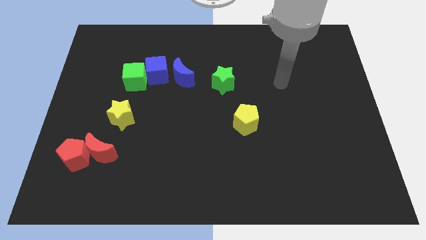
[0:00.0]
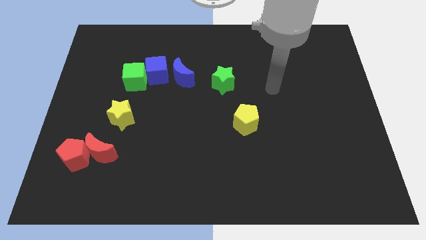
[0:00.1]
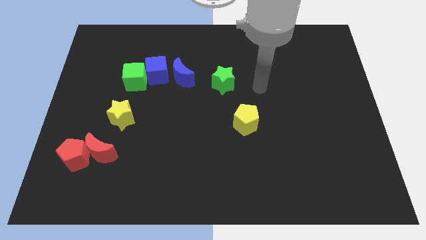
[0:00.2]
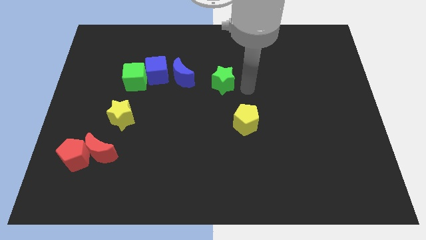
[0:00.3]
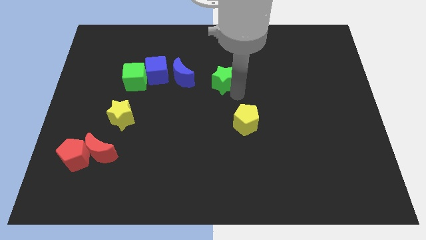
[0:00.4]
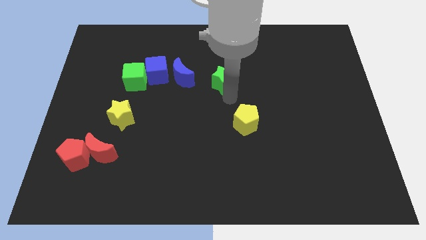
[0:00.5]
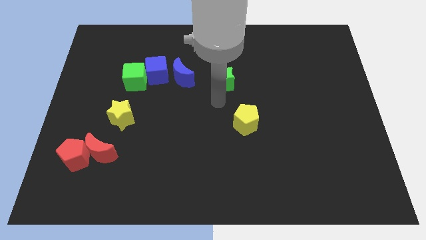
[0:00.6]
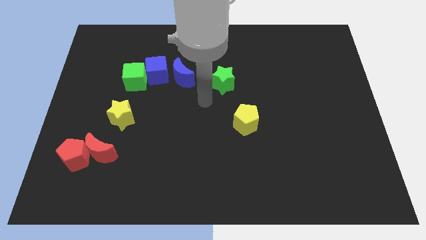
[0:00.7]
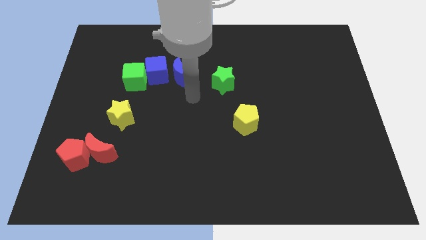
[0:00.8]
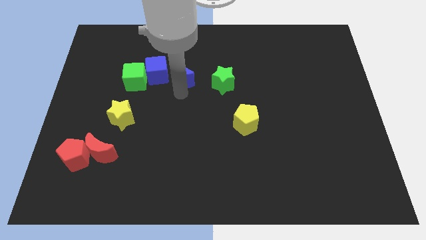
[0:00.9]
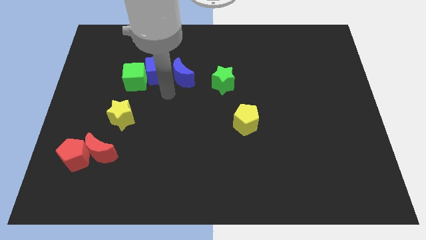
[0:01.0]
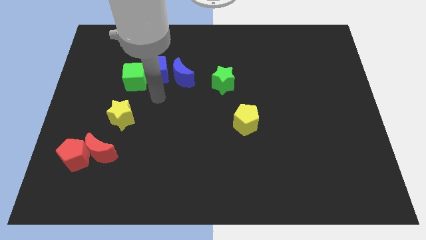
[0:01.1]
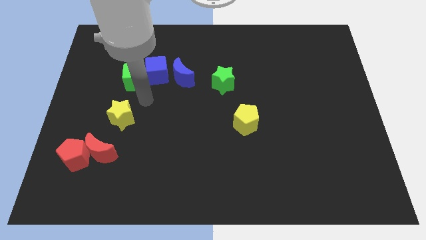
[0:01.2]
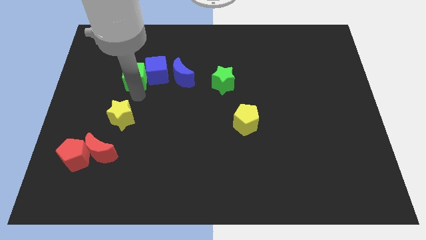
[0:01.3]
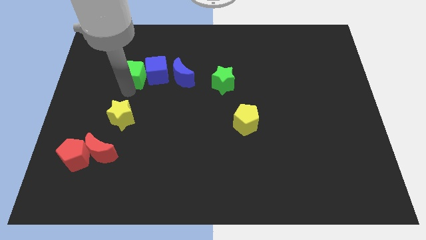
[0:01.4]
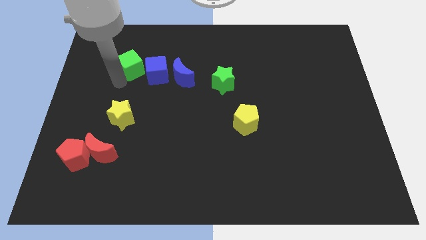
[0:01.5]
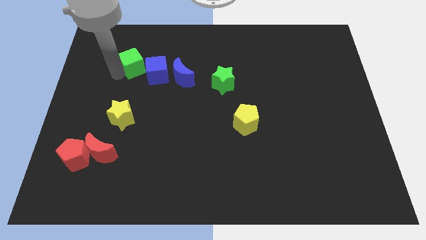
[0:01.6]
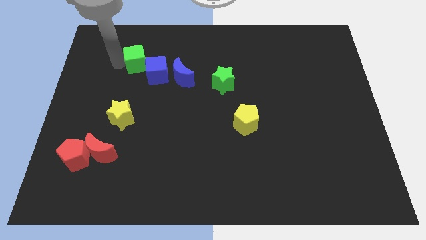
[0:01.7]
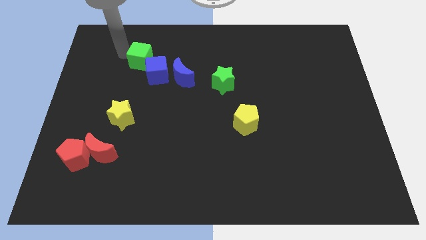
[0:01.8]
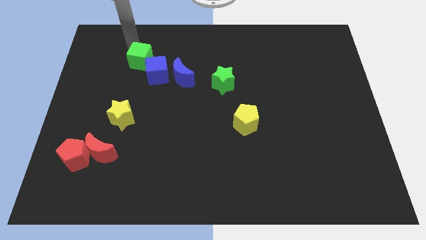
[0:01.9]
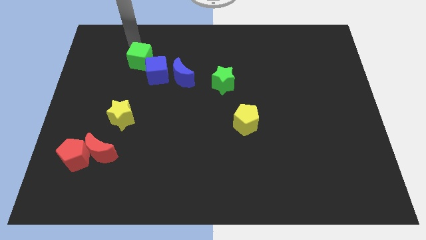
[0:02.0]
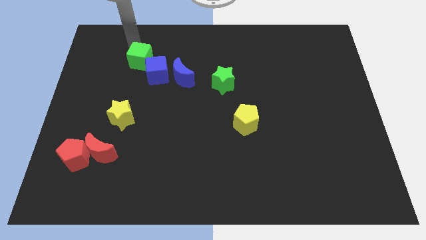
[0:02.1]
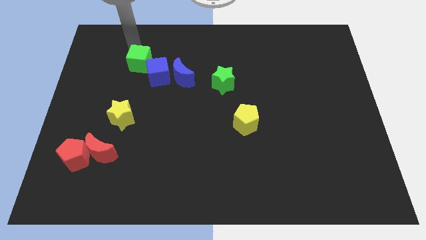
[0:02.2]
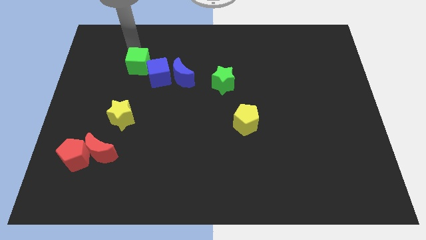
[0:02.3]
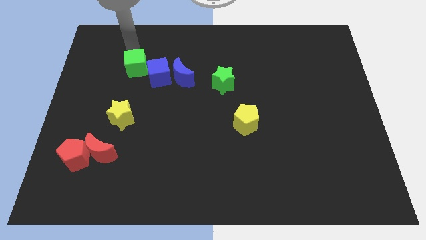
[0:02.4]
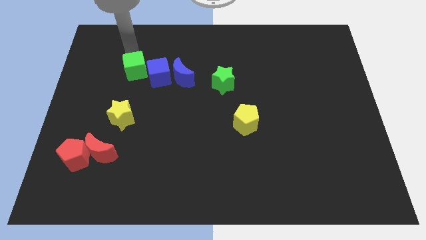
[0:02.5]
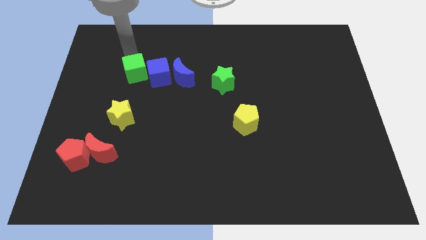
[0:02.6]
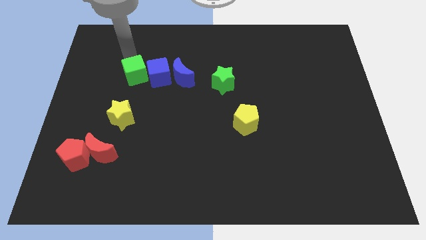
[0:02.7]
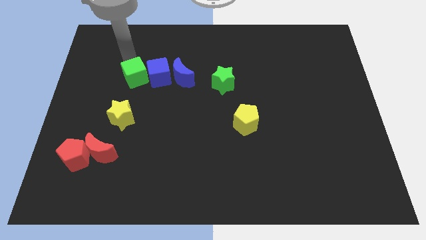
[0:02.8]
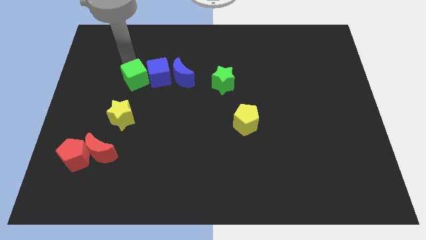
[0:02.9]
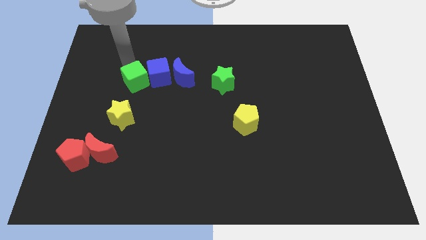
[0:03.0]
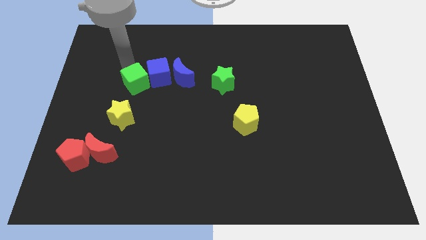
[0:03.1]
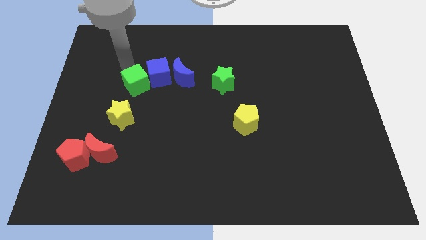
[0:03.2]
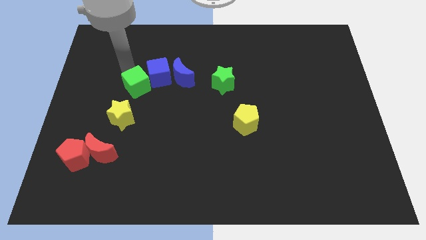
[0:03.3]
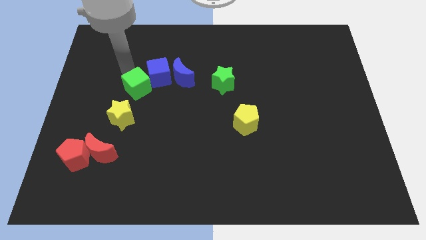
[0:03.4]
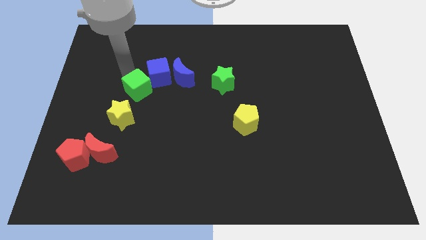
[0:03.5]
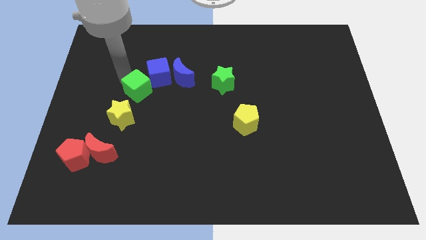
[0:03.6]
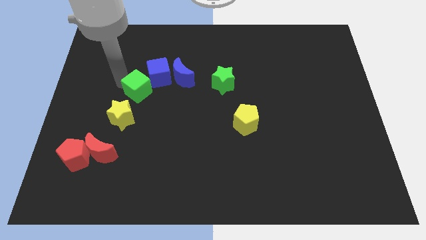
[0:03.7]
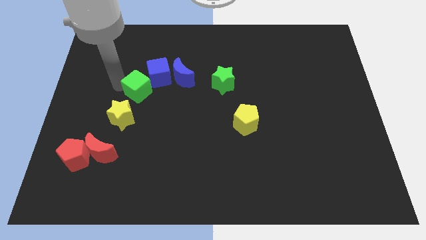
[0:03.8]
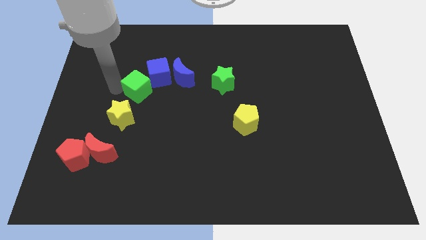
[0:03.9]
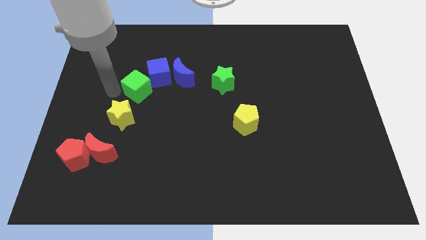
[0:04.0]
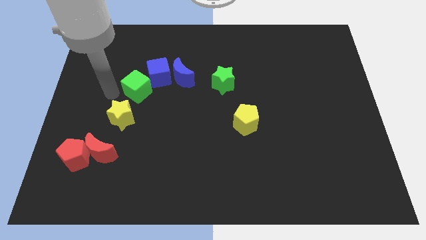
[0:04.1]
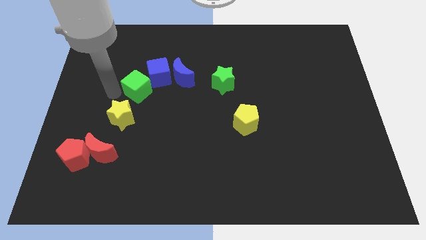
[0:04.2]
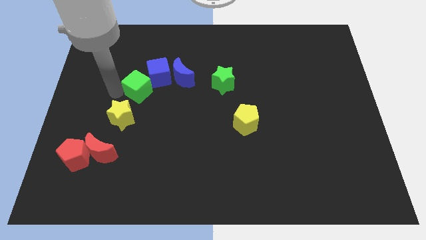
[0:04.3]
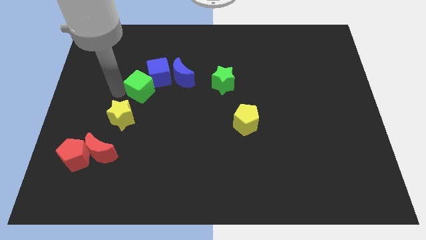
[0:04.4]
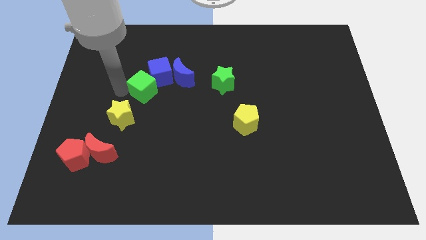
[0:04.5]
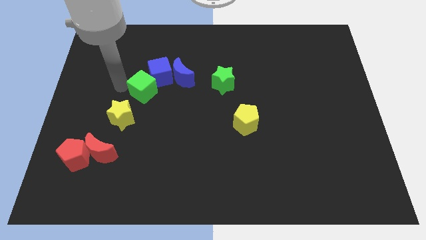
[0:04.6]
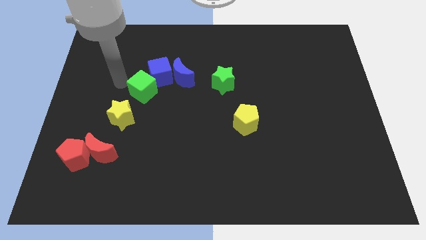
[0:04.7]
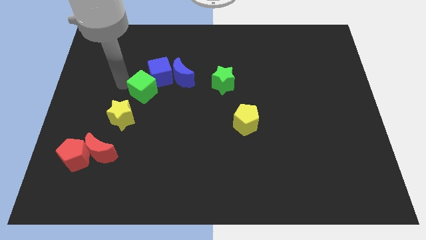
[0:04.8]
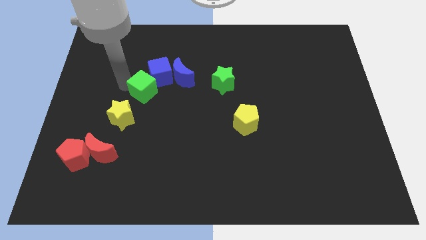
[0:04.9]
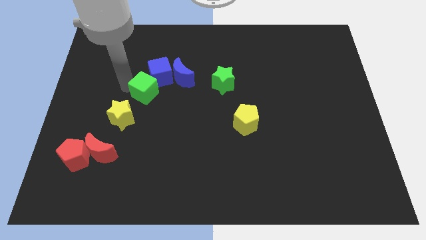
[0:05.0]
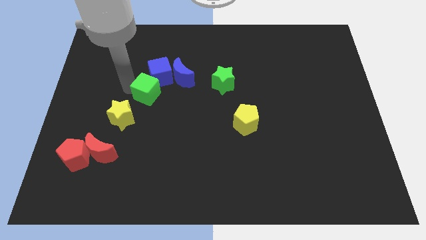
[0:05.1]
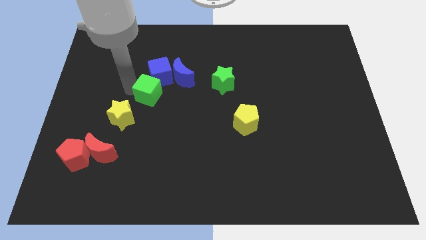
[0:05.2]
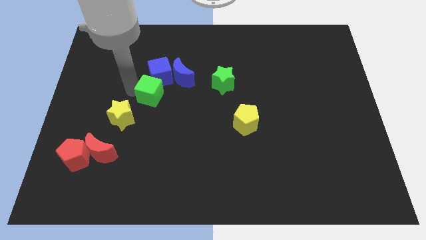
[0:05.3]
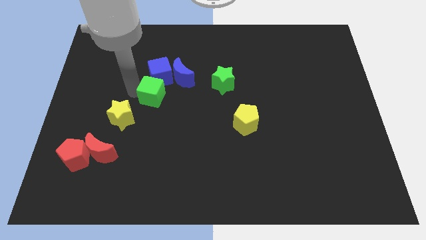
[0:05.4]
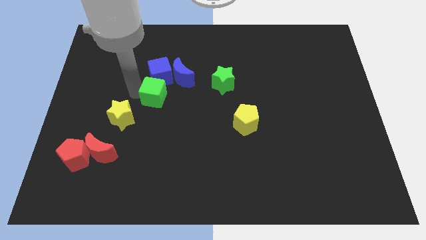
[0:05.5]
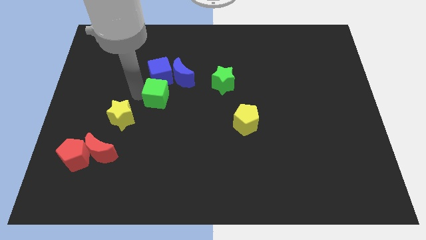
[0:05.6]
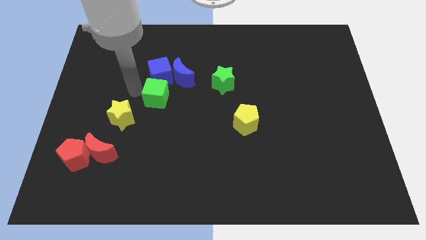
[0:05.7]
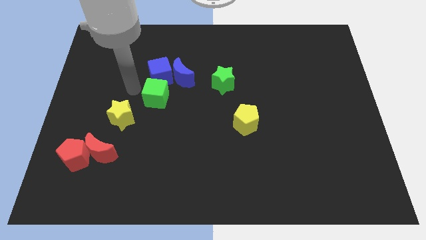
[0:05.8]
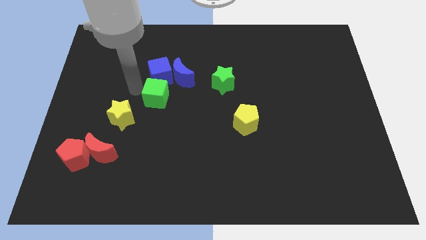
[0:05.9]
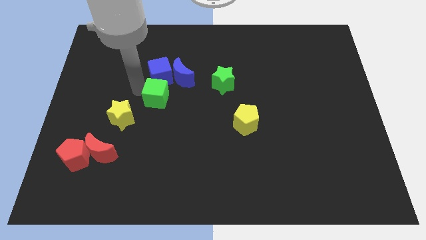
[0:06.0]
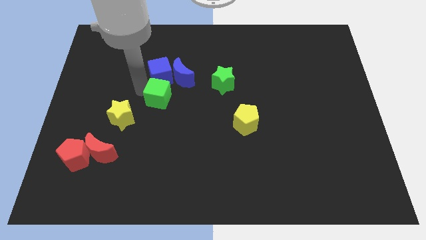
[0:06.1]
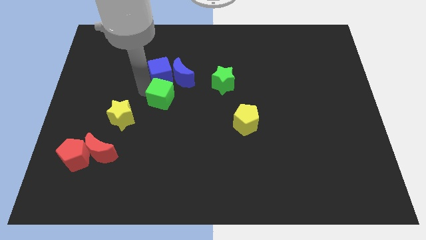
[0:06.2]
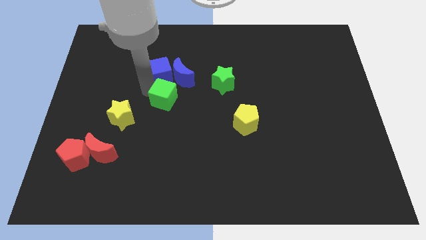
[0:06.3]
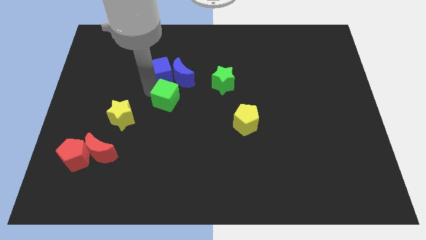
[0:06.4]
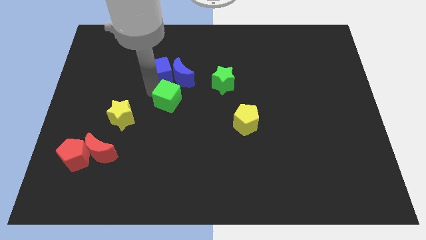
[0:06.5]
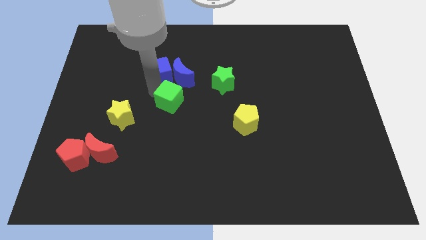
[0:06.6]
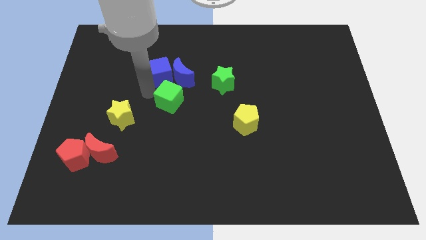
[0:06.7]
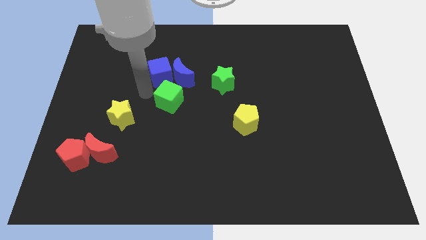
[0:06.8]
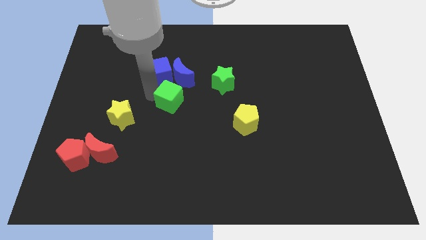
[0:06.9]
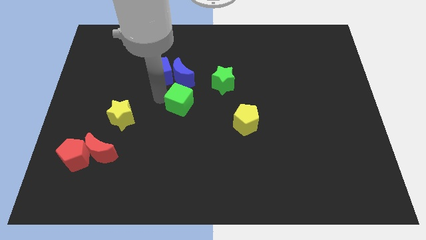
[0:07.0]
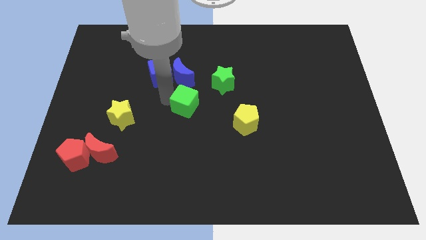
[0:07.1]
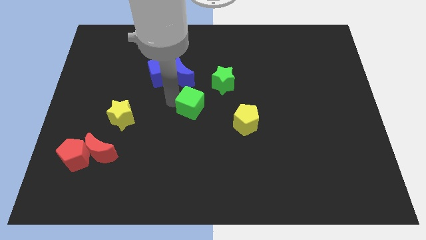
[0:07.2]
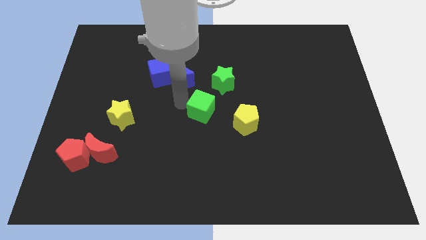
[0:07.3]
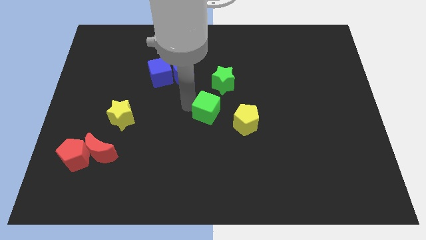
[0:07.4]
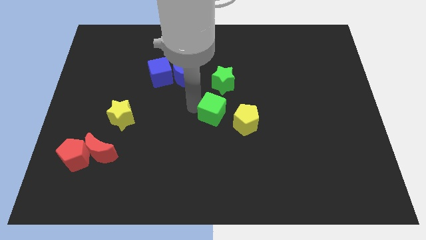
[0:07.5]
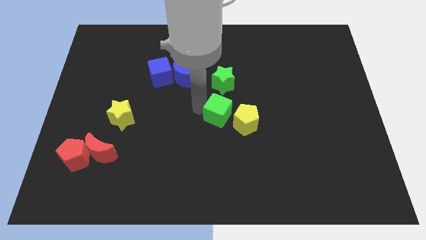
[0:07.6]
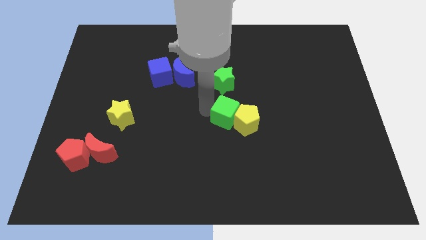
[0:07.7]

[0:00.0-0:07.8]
slide the green cube close to the yellow pentagon
